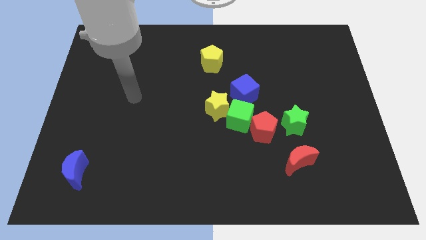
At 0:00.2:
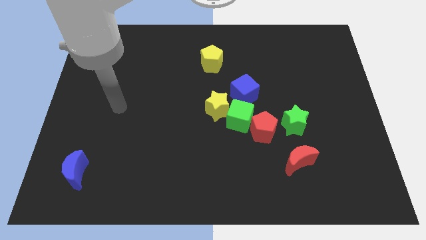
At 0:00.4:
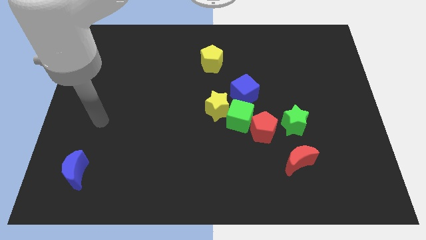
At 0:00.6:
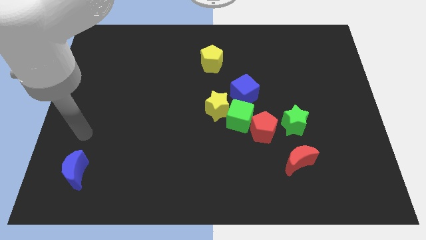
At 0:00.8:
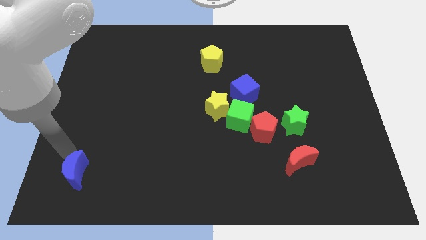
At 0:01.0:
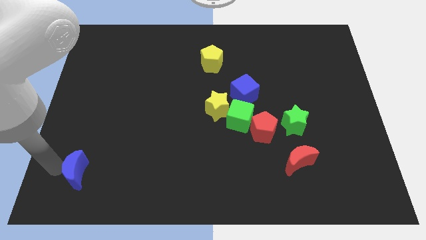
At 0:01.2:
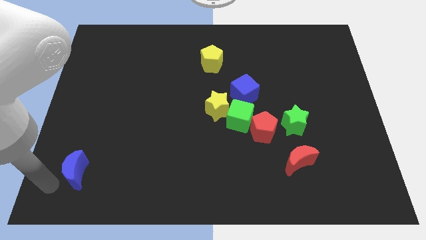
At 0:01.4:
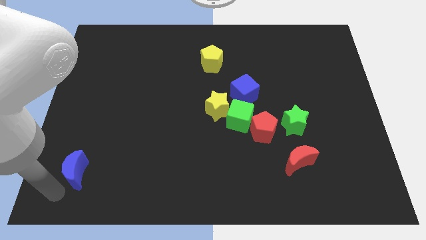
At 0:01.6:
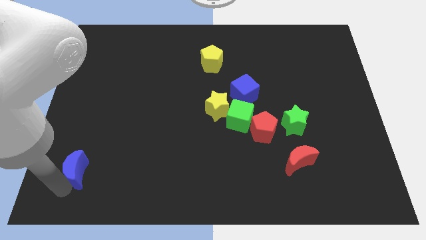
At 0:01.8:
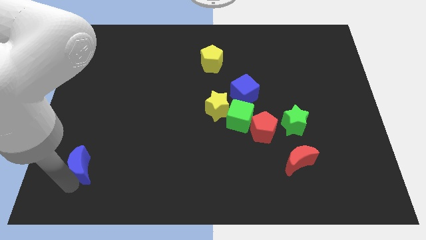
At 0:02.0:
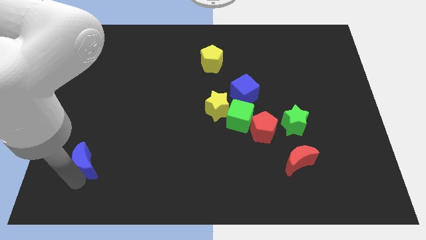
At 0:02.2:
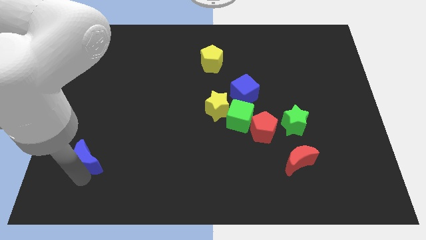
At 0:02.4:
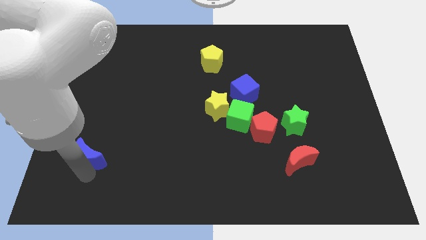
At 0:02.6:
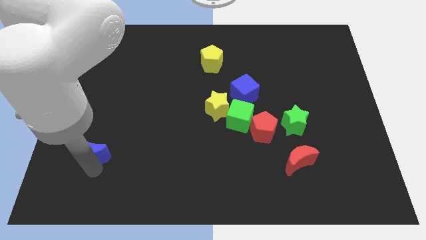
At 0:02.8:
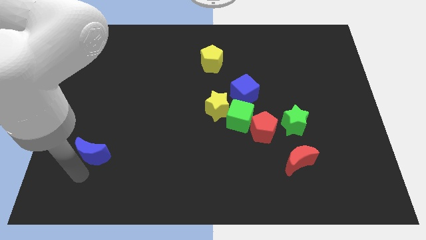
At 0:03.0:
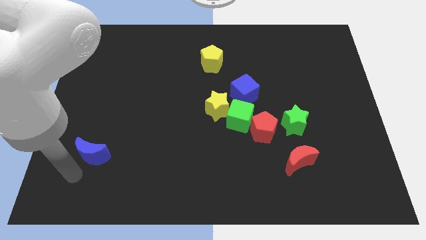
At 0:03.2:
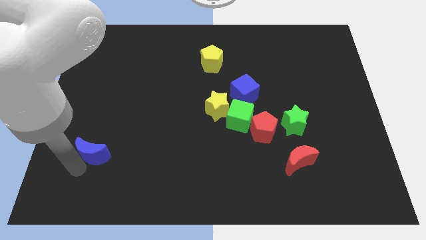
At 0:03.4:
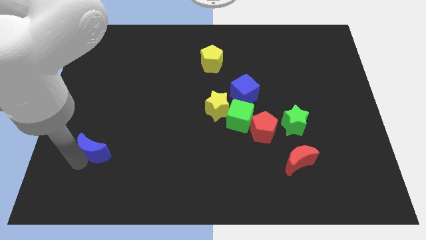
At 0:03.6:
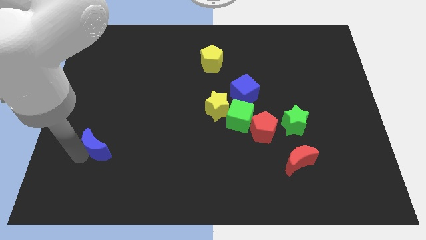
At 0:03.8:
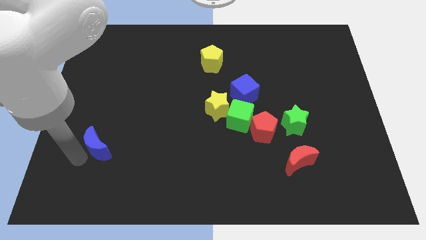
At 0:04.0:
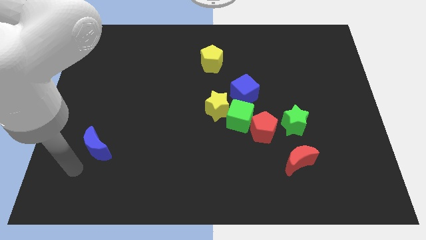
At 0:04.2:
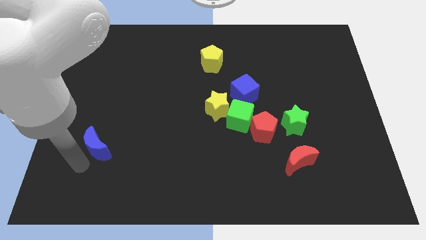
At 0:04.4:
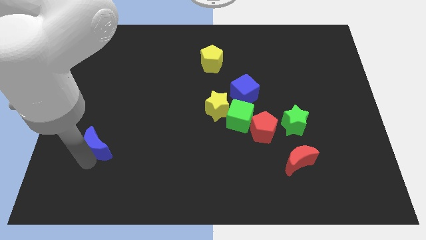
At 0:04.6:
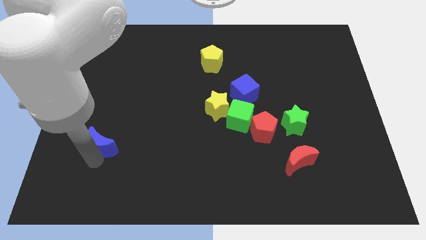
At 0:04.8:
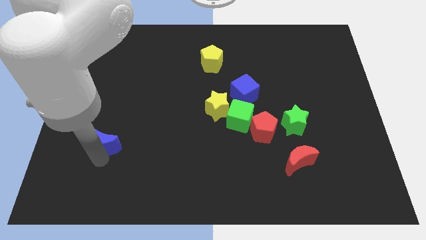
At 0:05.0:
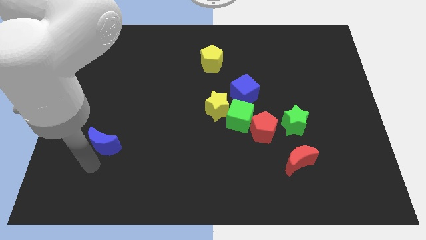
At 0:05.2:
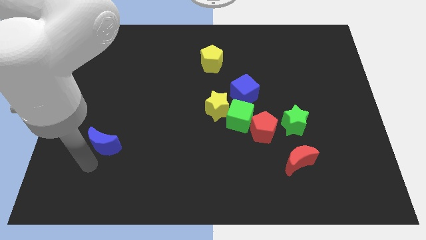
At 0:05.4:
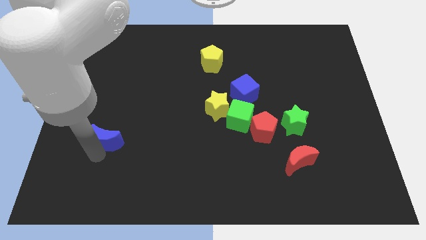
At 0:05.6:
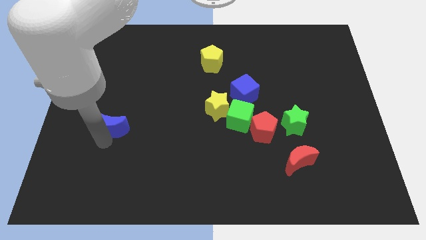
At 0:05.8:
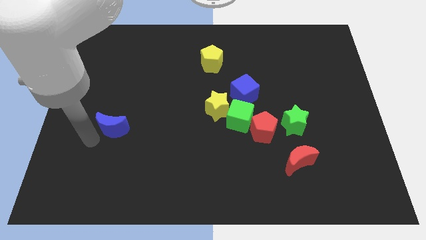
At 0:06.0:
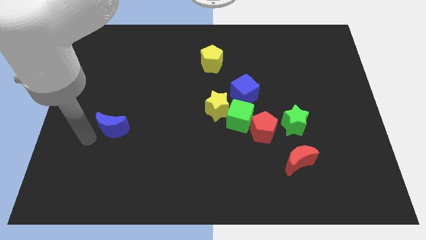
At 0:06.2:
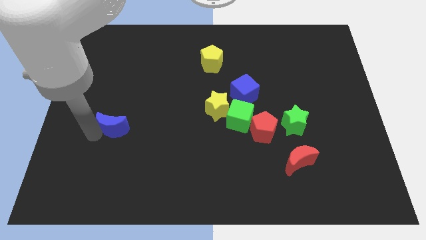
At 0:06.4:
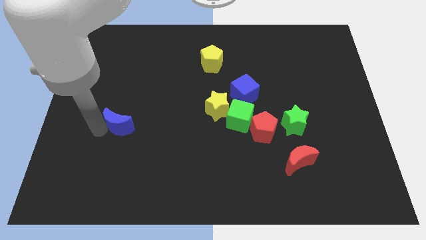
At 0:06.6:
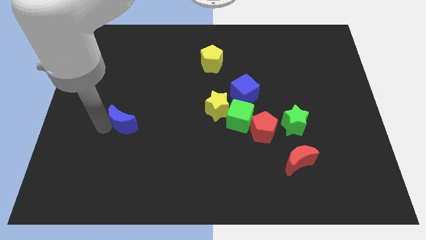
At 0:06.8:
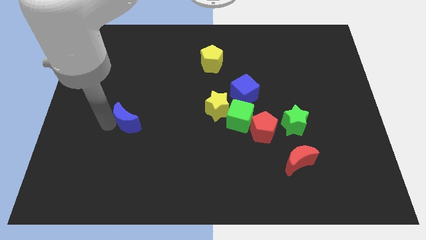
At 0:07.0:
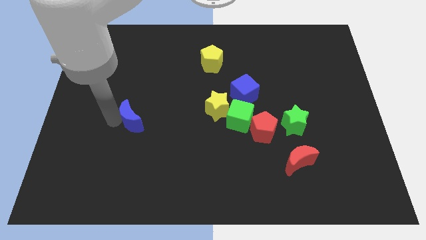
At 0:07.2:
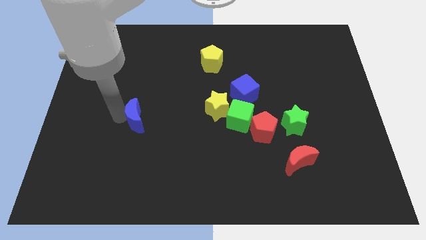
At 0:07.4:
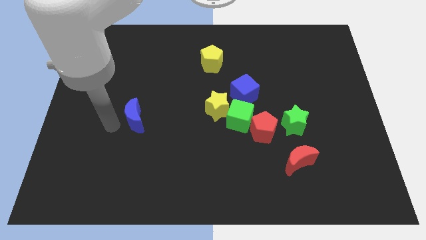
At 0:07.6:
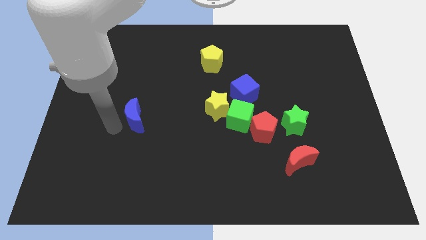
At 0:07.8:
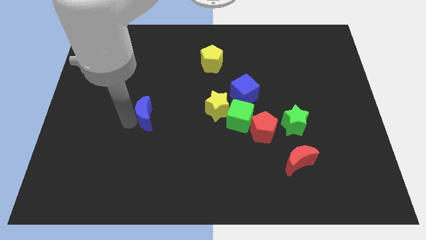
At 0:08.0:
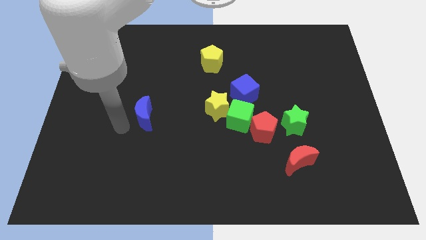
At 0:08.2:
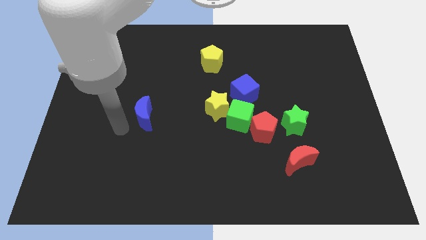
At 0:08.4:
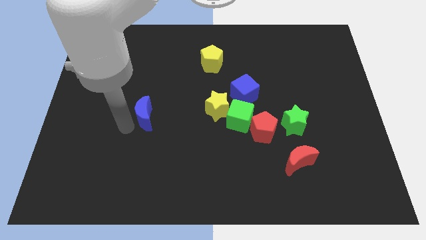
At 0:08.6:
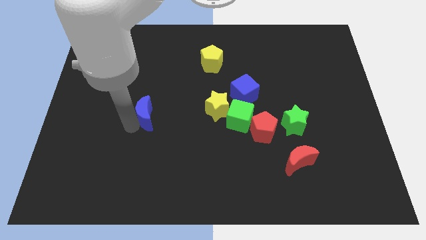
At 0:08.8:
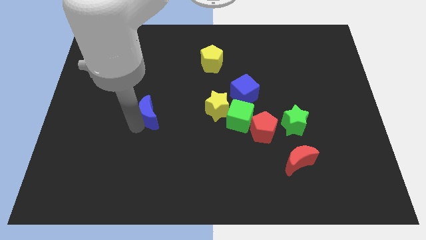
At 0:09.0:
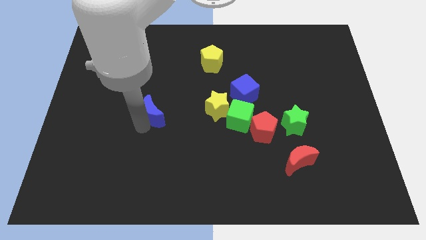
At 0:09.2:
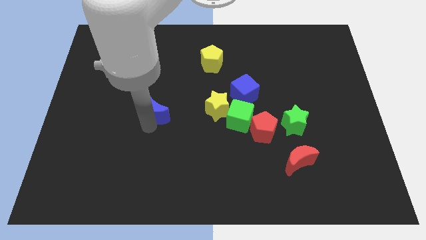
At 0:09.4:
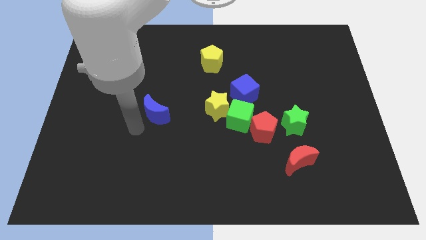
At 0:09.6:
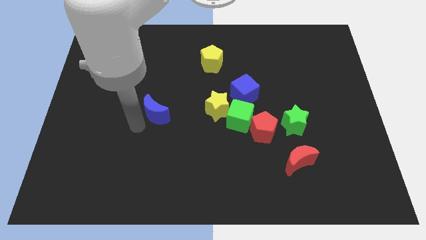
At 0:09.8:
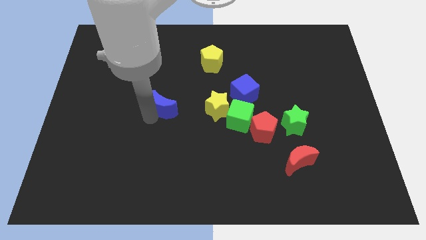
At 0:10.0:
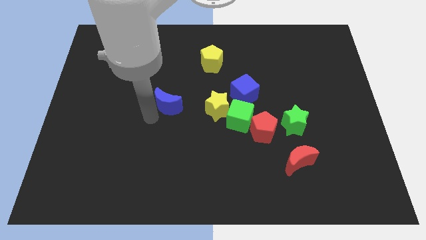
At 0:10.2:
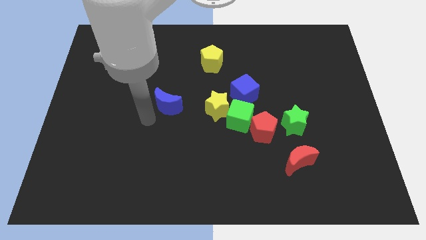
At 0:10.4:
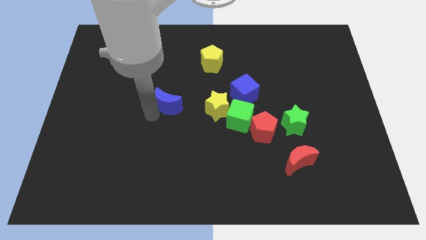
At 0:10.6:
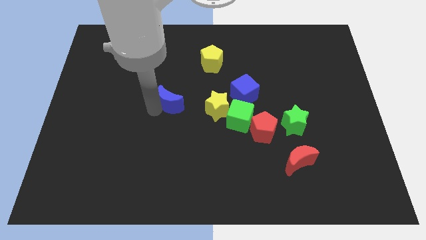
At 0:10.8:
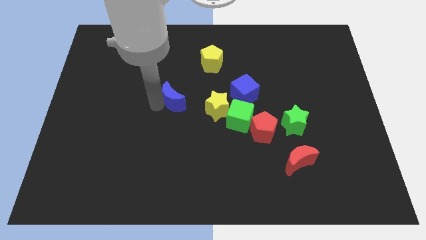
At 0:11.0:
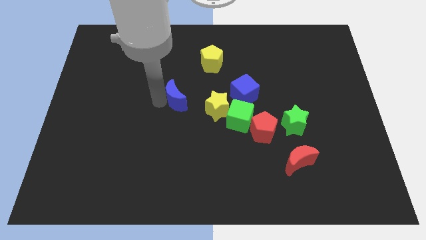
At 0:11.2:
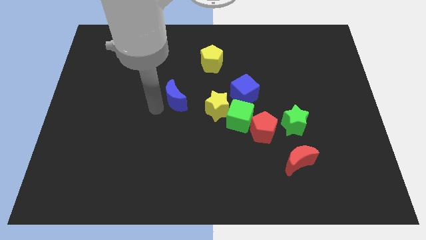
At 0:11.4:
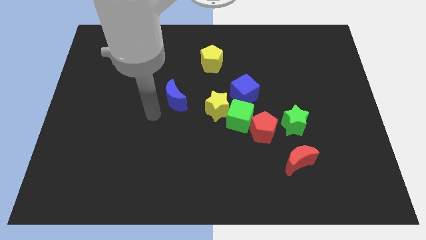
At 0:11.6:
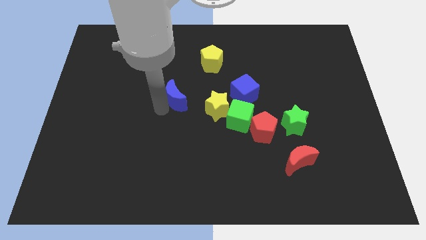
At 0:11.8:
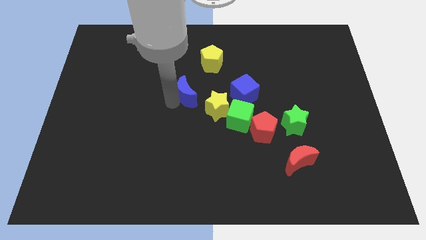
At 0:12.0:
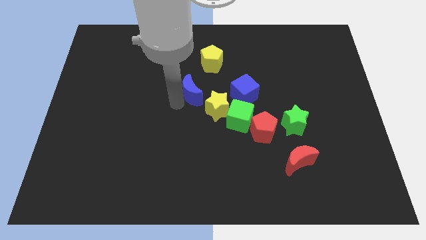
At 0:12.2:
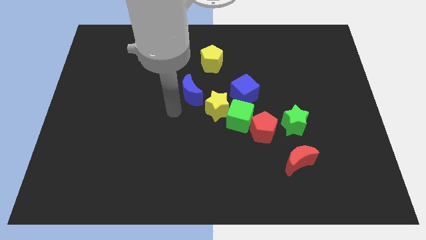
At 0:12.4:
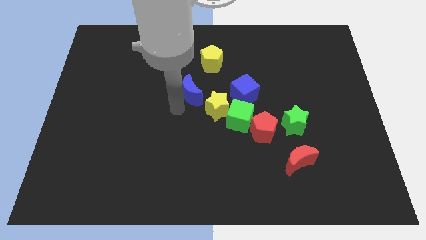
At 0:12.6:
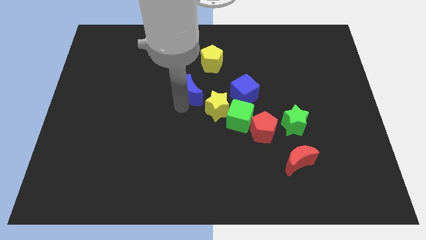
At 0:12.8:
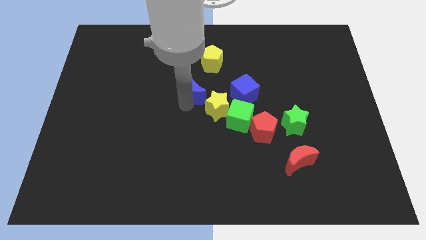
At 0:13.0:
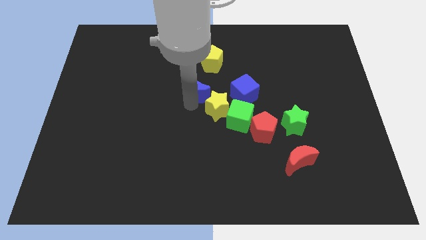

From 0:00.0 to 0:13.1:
push the blue moon above the yellow star

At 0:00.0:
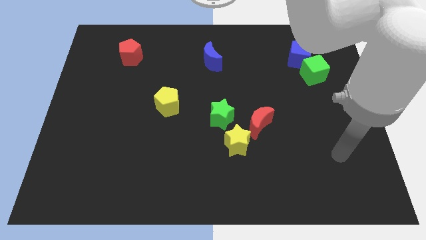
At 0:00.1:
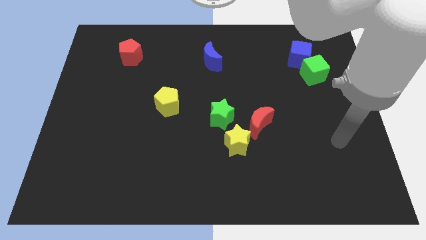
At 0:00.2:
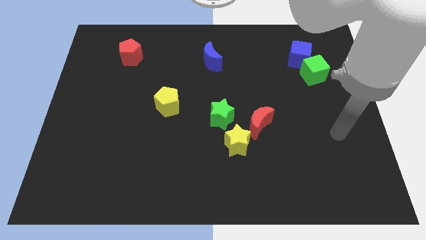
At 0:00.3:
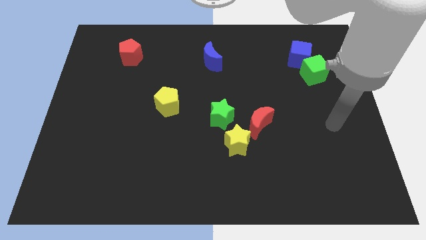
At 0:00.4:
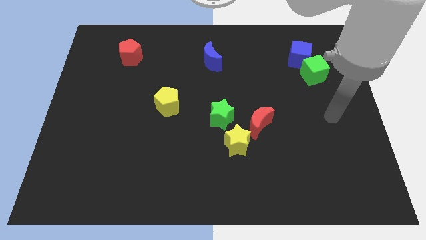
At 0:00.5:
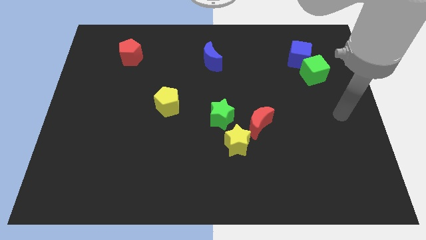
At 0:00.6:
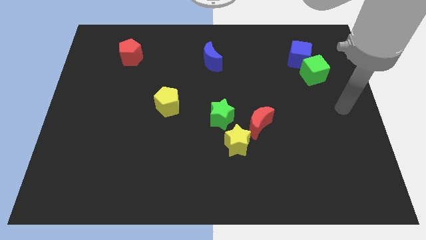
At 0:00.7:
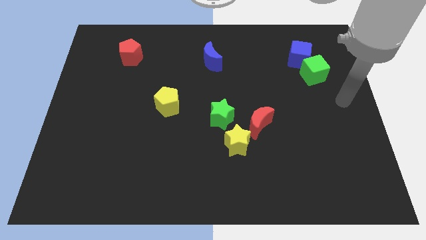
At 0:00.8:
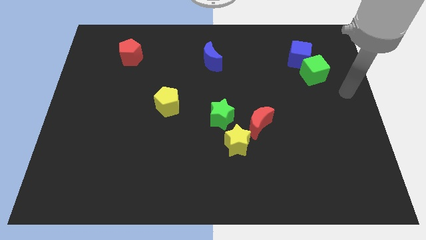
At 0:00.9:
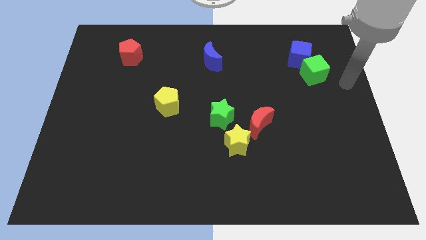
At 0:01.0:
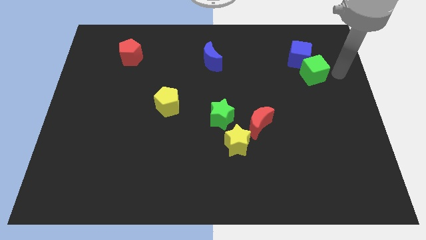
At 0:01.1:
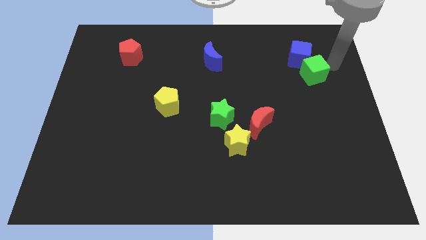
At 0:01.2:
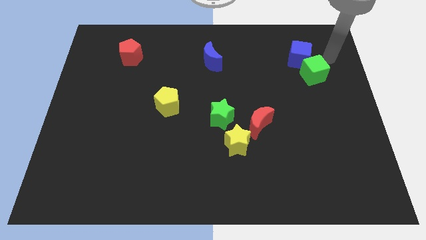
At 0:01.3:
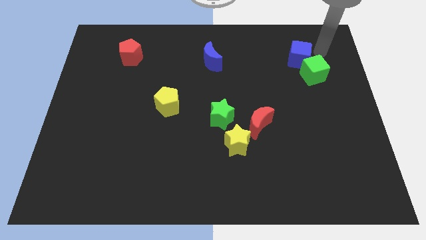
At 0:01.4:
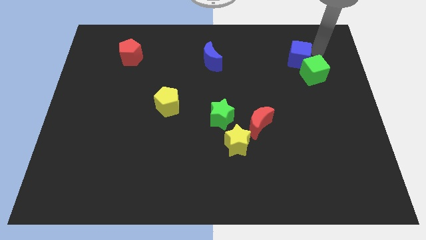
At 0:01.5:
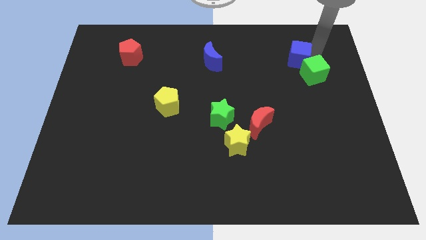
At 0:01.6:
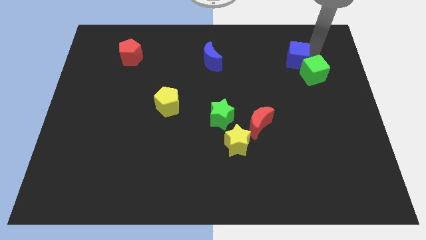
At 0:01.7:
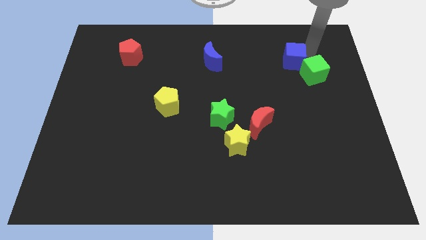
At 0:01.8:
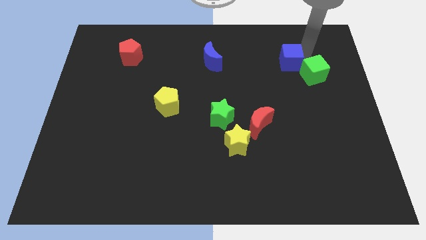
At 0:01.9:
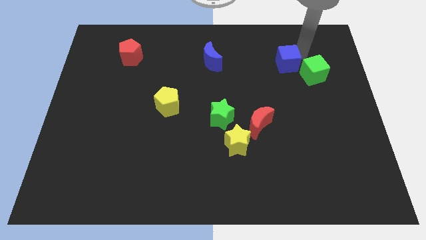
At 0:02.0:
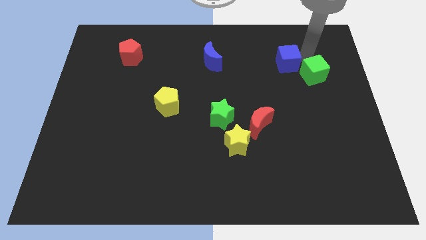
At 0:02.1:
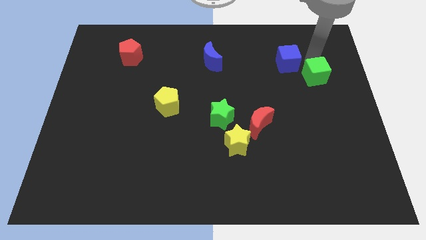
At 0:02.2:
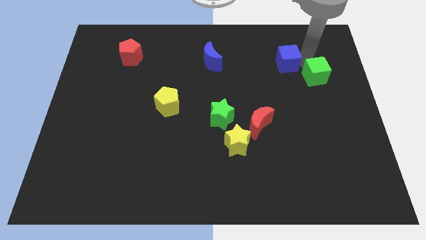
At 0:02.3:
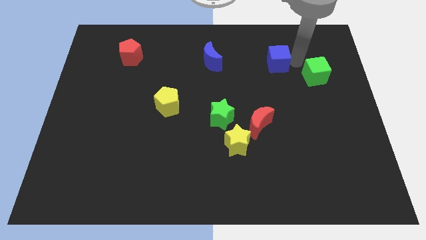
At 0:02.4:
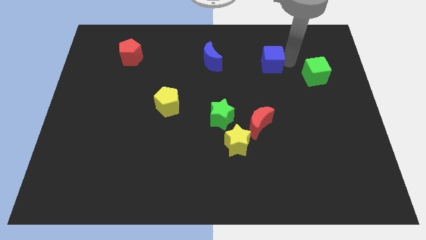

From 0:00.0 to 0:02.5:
slide the blue cube to the right of the blue moon
